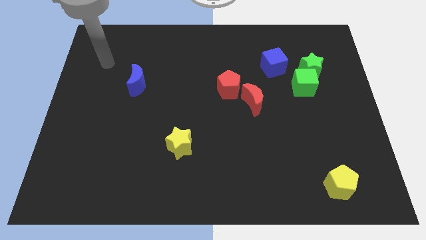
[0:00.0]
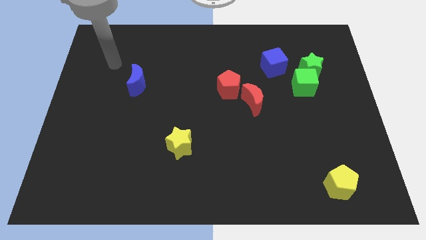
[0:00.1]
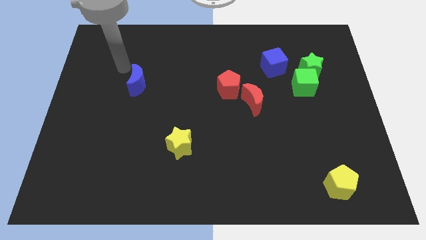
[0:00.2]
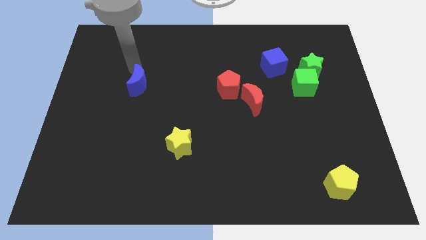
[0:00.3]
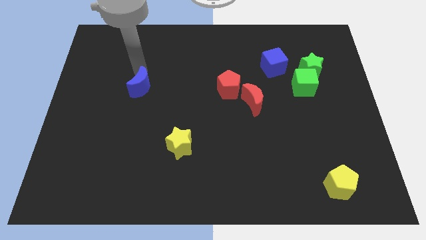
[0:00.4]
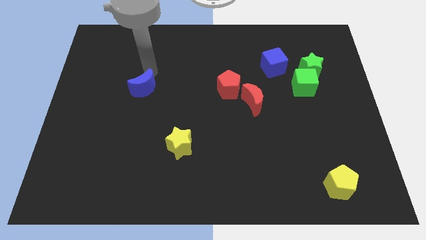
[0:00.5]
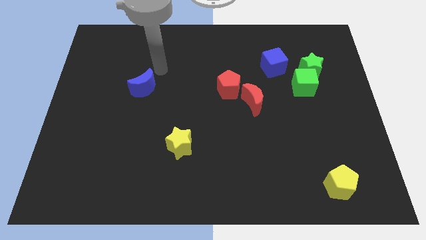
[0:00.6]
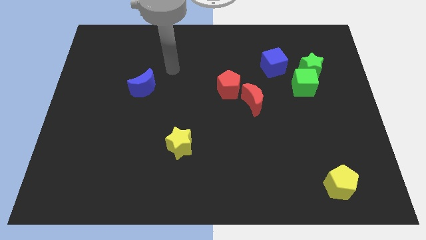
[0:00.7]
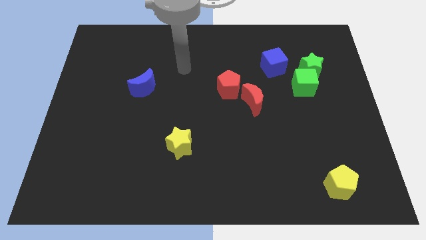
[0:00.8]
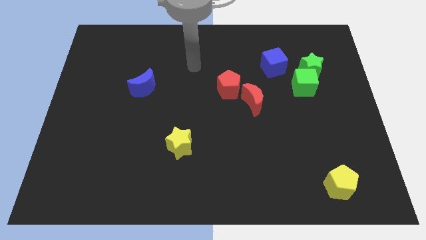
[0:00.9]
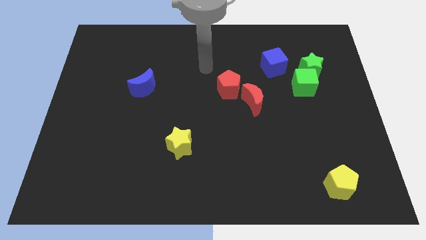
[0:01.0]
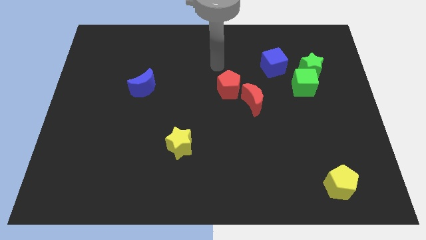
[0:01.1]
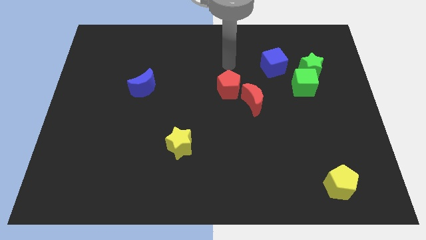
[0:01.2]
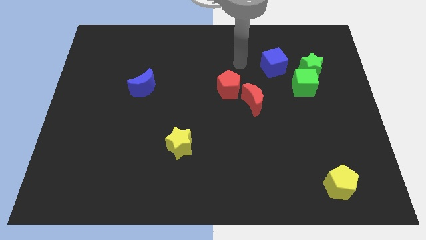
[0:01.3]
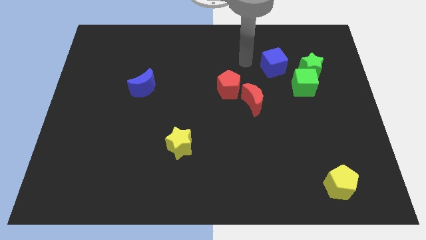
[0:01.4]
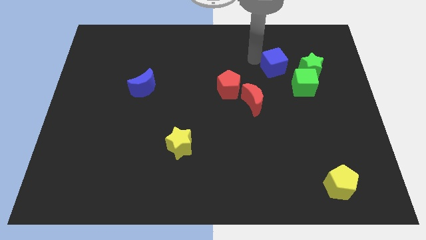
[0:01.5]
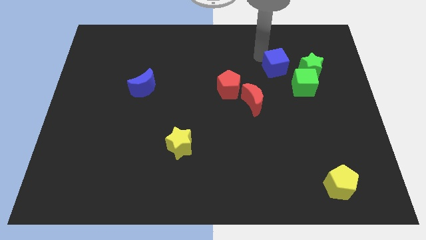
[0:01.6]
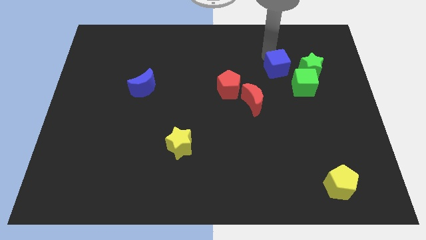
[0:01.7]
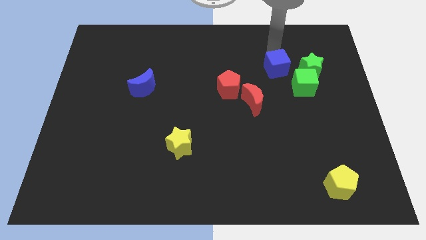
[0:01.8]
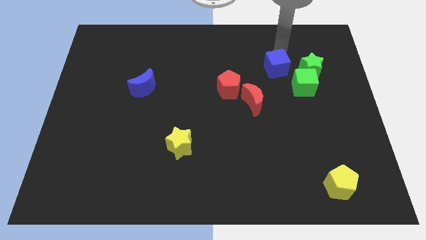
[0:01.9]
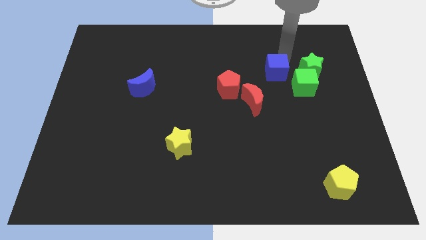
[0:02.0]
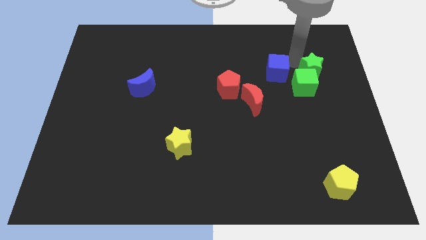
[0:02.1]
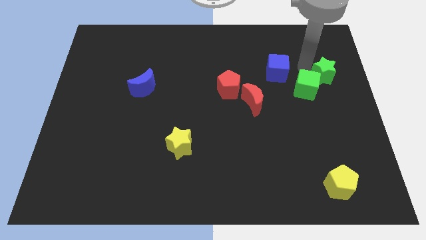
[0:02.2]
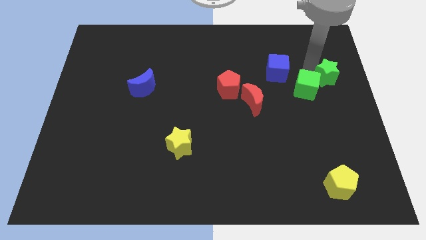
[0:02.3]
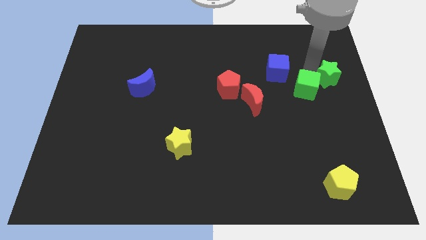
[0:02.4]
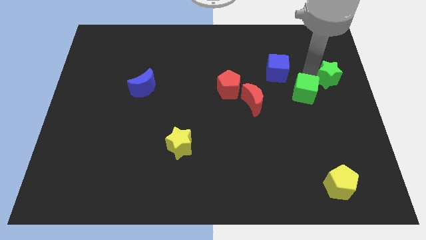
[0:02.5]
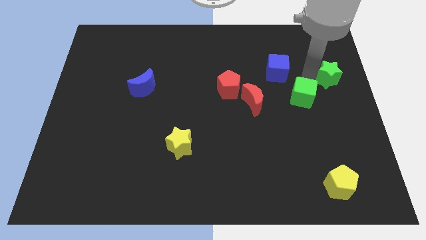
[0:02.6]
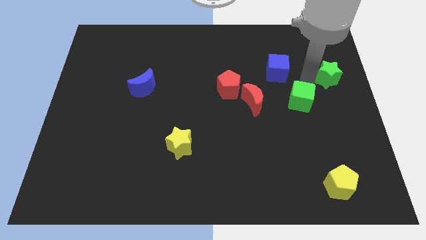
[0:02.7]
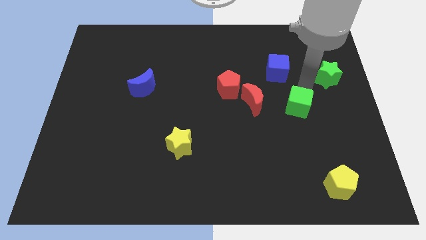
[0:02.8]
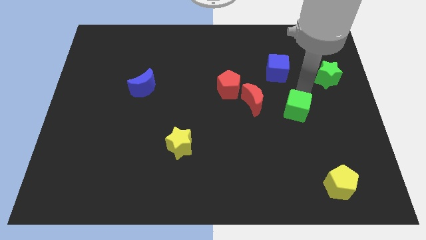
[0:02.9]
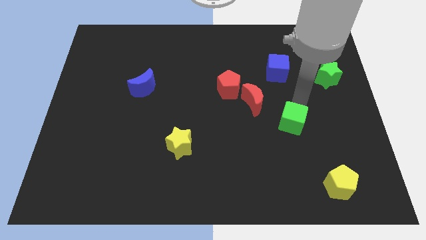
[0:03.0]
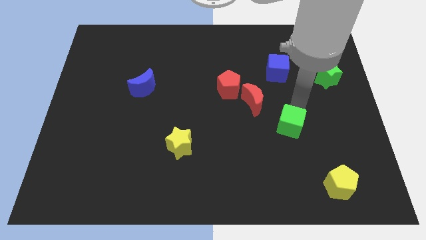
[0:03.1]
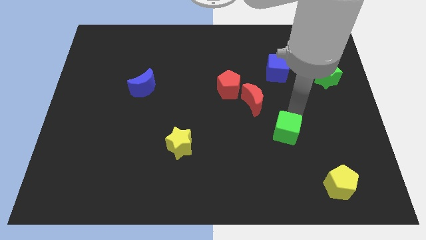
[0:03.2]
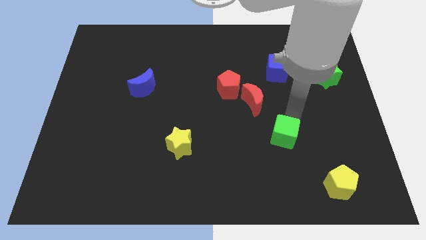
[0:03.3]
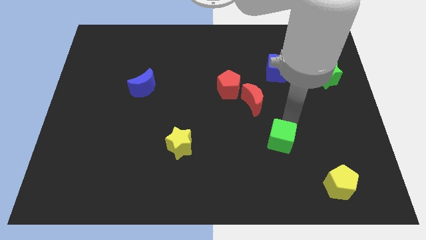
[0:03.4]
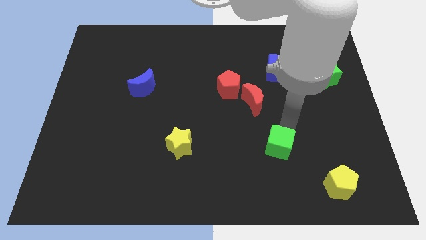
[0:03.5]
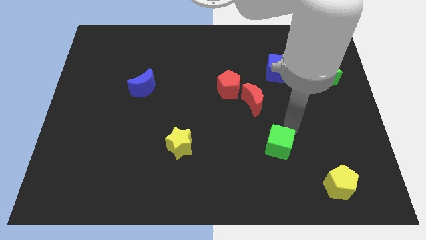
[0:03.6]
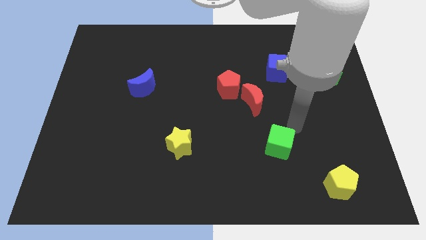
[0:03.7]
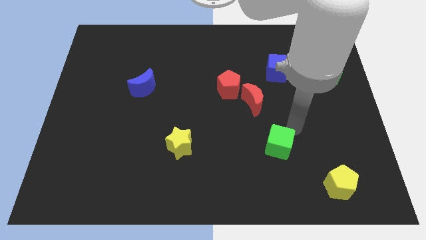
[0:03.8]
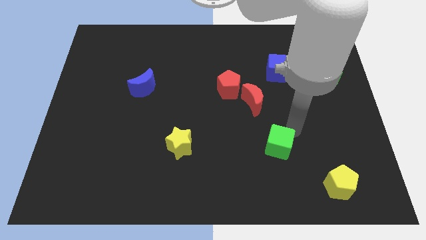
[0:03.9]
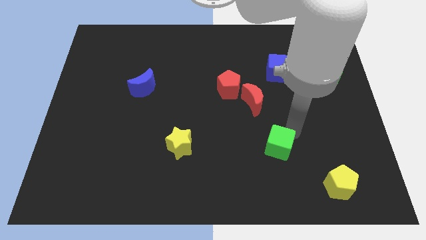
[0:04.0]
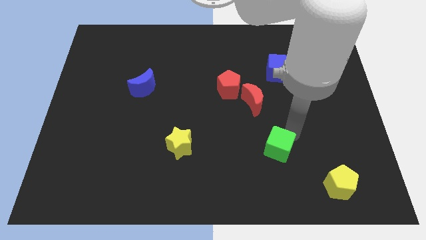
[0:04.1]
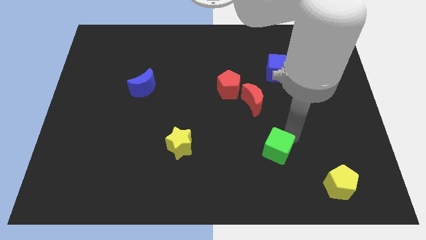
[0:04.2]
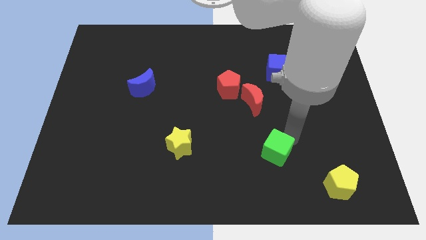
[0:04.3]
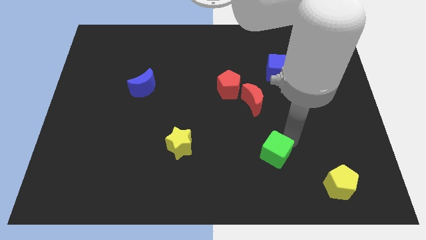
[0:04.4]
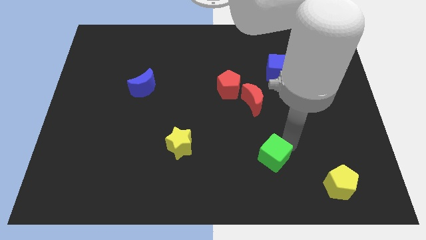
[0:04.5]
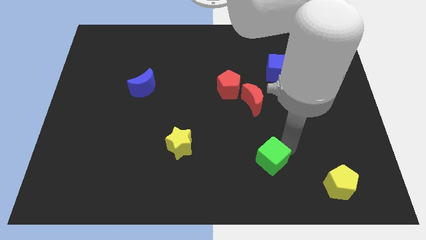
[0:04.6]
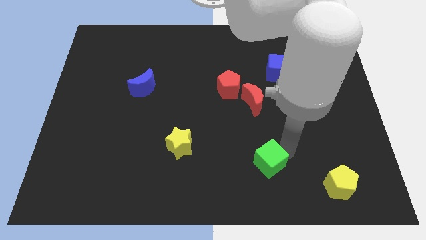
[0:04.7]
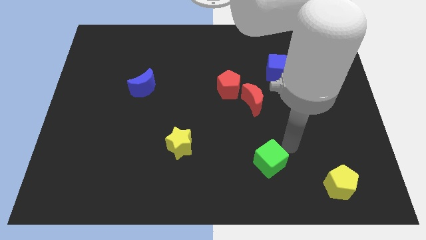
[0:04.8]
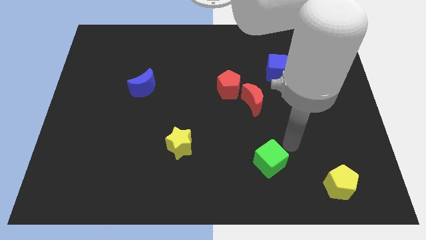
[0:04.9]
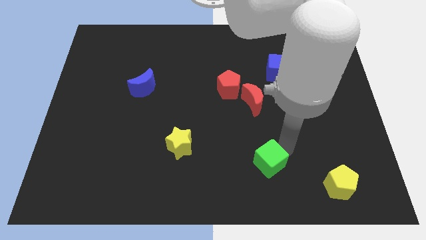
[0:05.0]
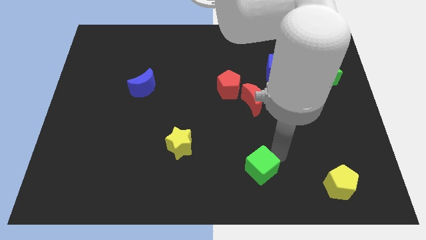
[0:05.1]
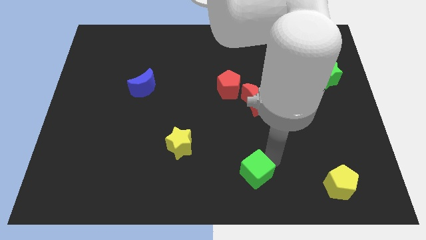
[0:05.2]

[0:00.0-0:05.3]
put the green cube to the bottom side

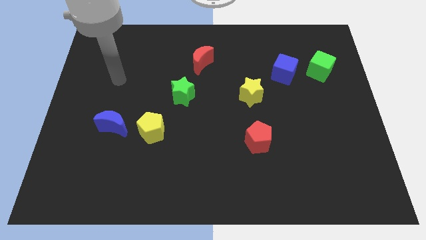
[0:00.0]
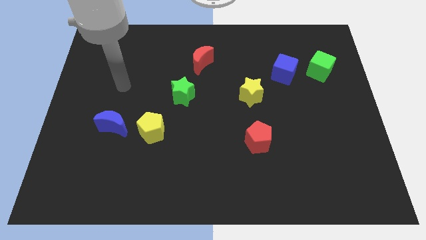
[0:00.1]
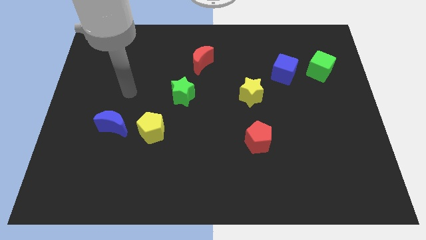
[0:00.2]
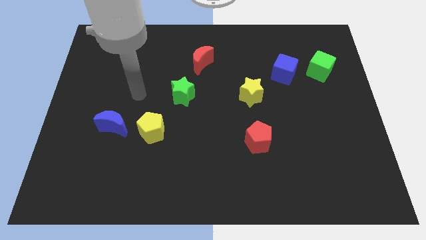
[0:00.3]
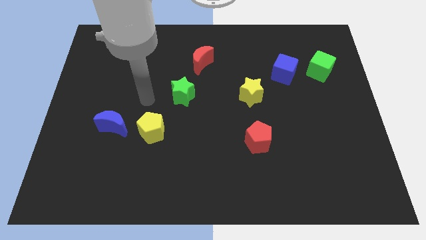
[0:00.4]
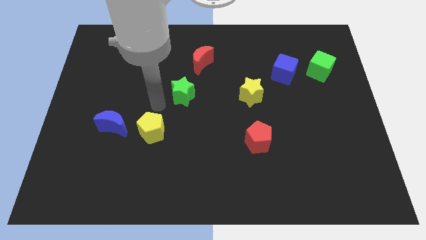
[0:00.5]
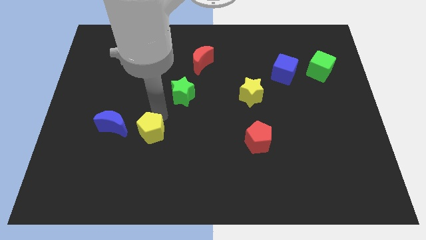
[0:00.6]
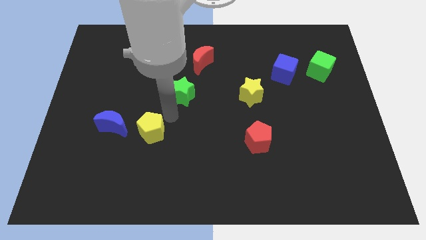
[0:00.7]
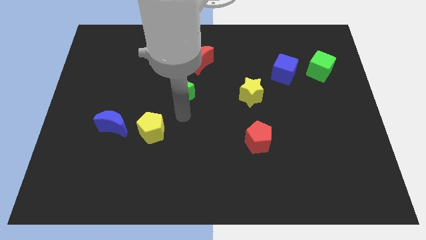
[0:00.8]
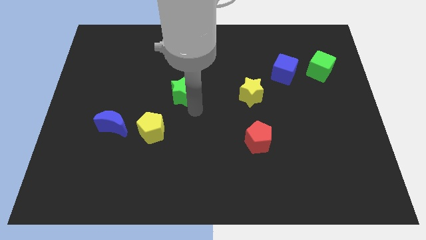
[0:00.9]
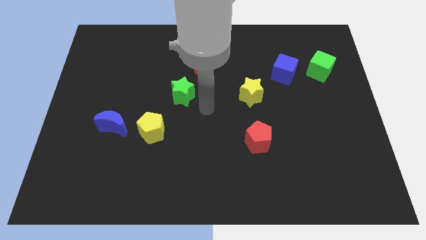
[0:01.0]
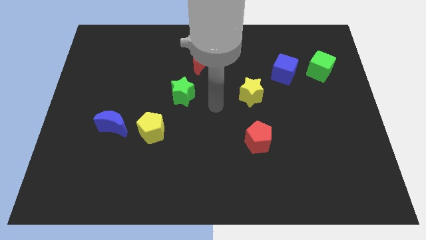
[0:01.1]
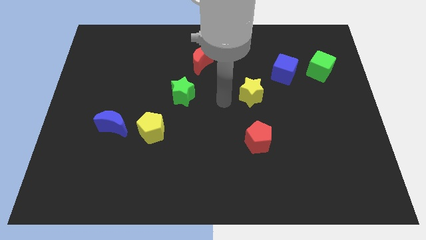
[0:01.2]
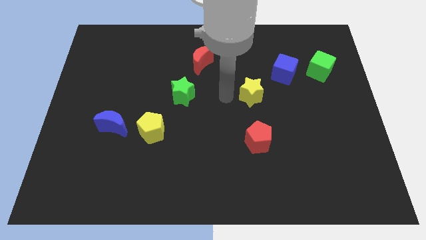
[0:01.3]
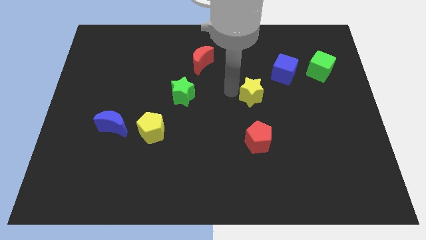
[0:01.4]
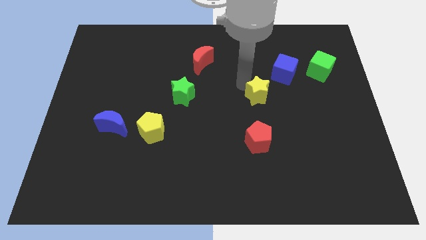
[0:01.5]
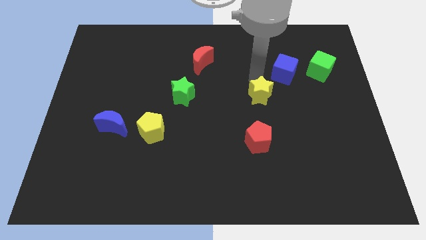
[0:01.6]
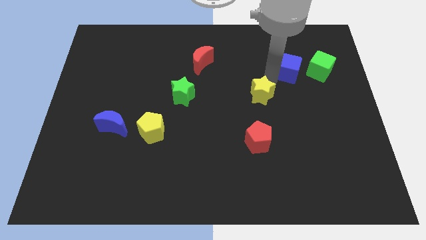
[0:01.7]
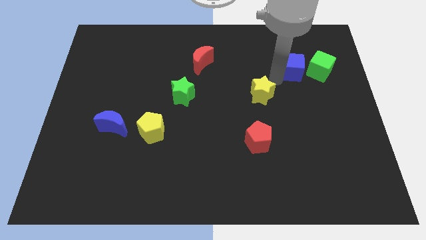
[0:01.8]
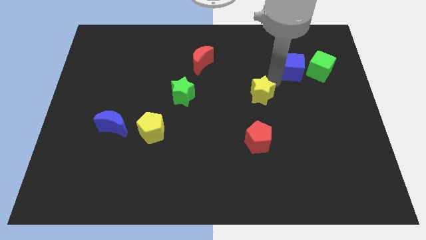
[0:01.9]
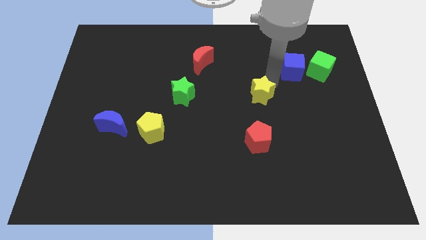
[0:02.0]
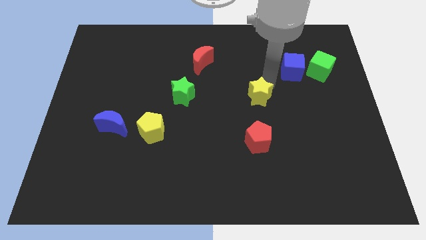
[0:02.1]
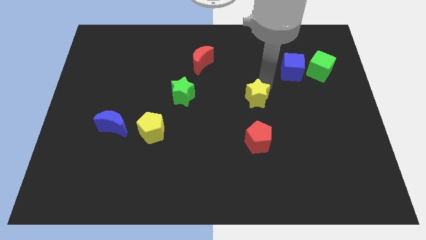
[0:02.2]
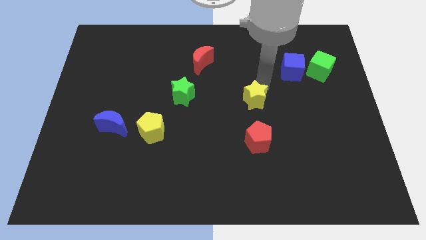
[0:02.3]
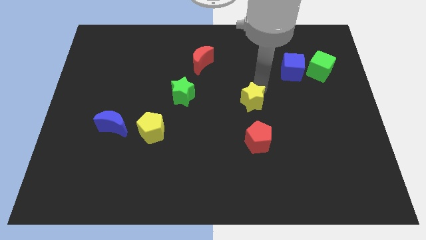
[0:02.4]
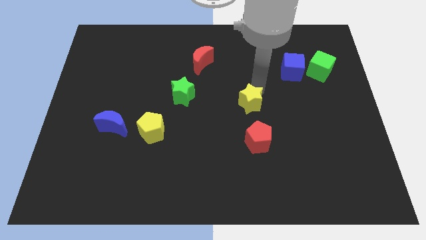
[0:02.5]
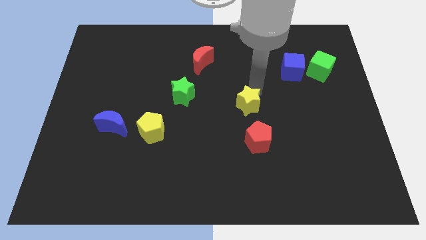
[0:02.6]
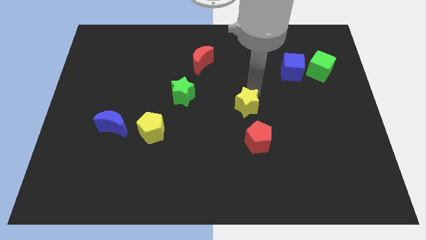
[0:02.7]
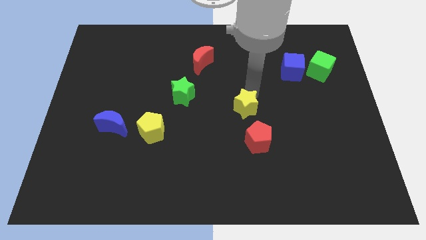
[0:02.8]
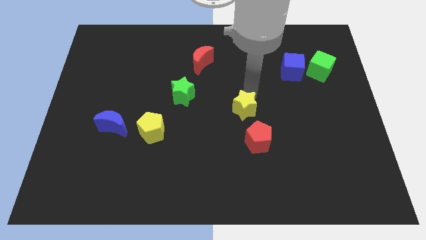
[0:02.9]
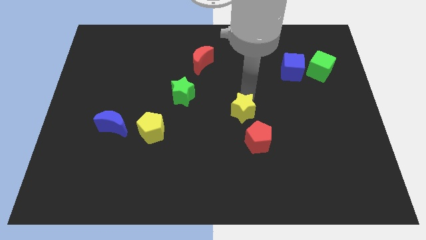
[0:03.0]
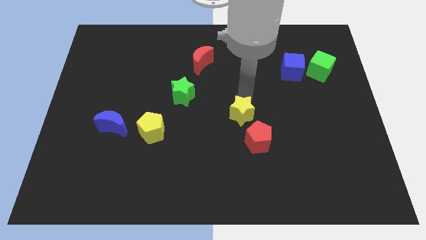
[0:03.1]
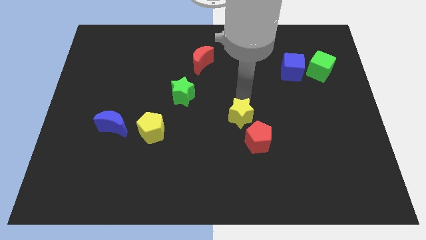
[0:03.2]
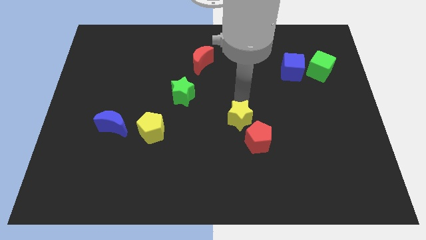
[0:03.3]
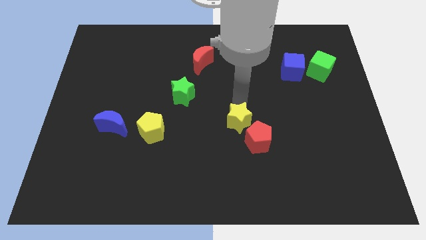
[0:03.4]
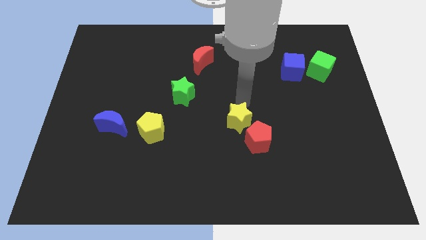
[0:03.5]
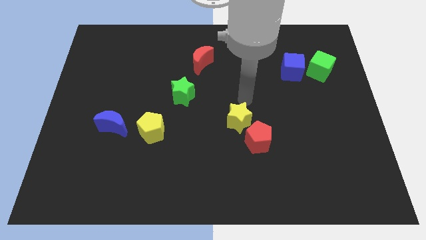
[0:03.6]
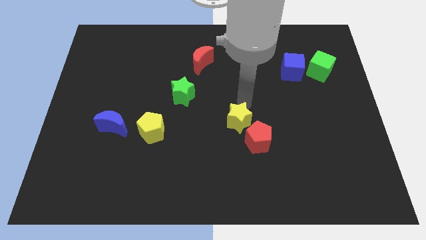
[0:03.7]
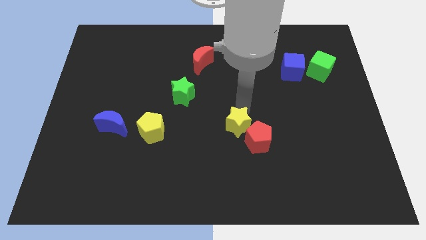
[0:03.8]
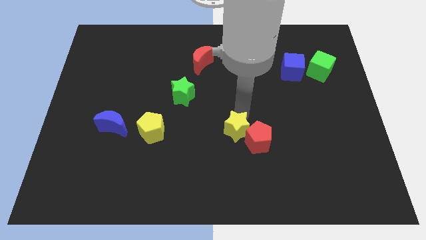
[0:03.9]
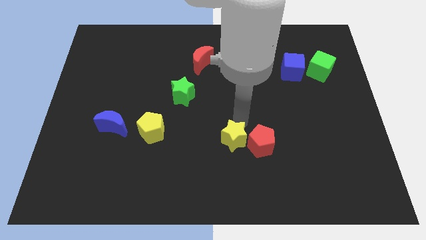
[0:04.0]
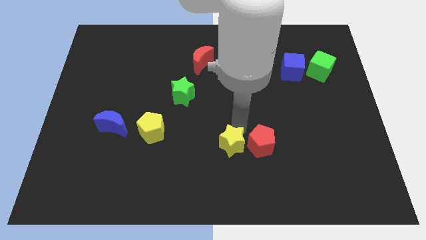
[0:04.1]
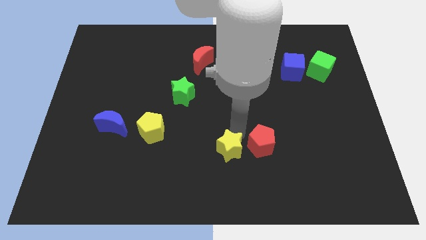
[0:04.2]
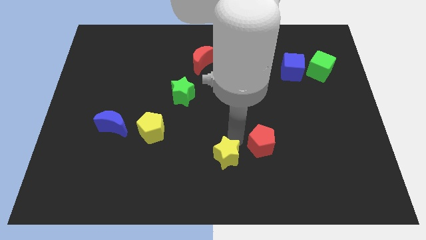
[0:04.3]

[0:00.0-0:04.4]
push the yellow star to the bottom
